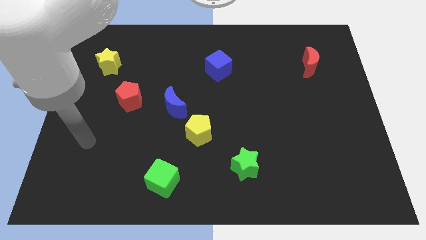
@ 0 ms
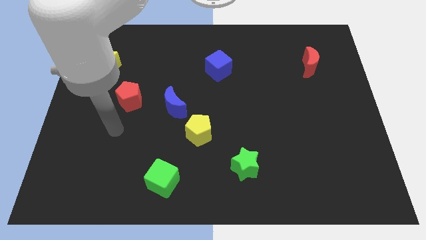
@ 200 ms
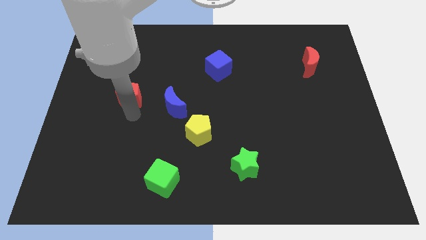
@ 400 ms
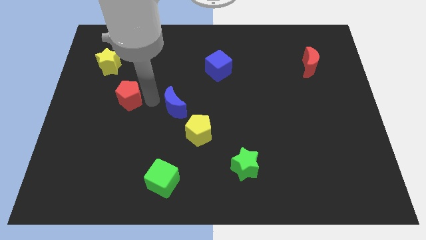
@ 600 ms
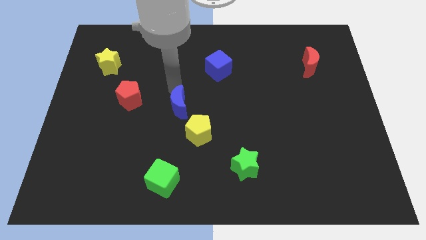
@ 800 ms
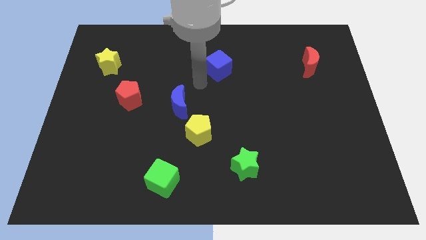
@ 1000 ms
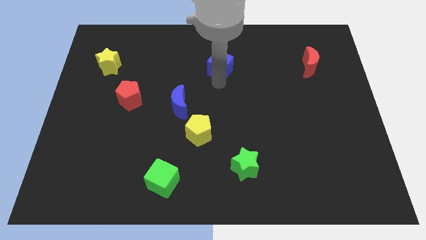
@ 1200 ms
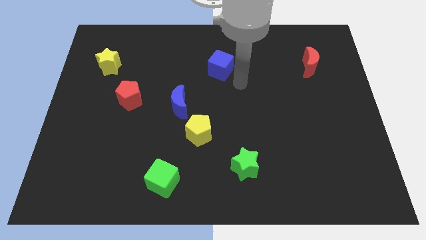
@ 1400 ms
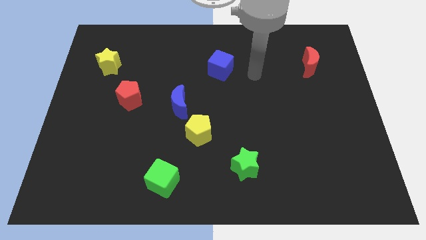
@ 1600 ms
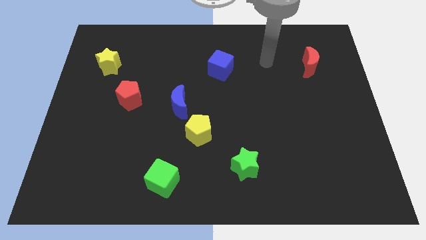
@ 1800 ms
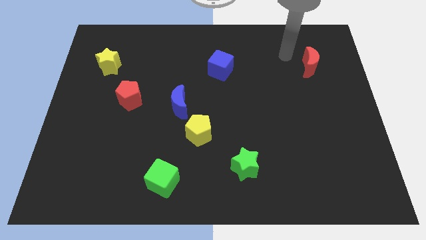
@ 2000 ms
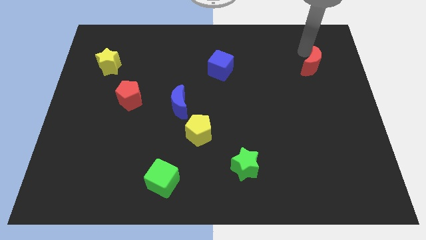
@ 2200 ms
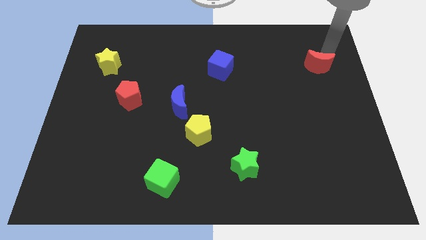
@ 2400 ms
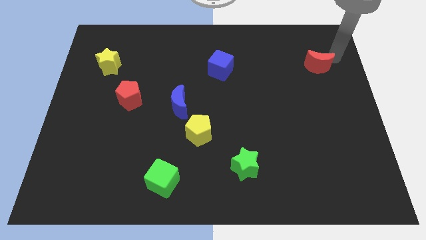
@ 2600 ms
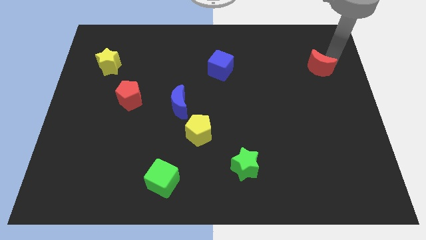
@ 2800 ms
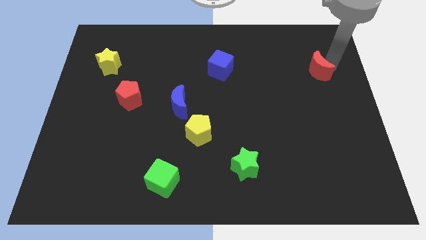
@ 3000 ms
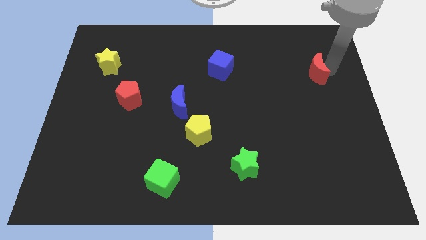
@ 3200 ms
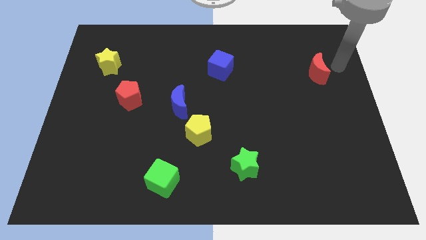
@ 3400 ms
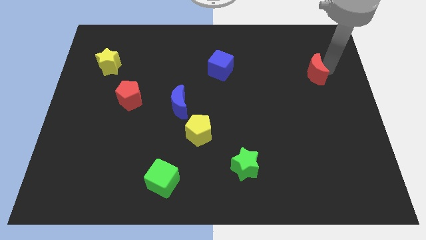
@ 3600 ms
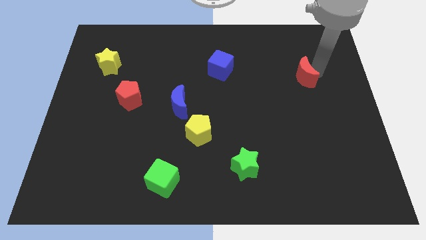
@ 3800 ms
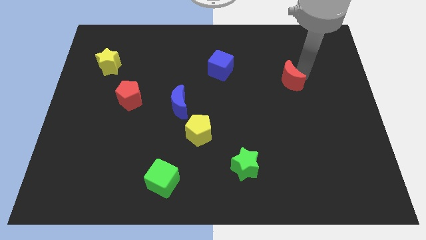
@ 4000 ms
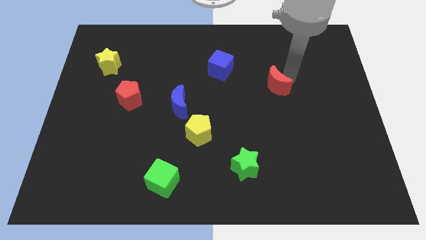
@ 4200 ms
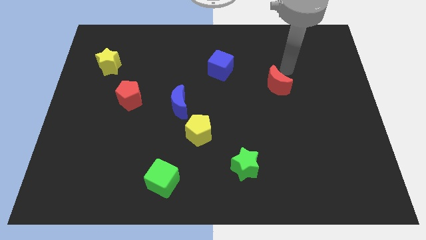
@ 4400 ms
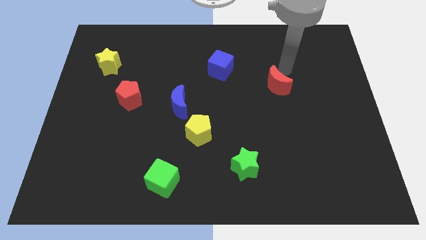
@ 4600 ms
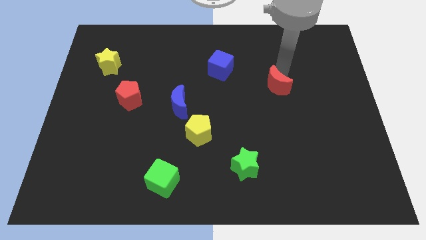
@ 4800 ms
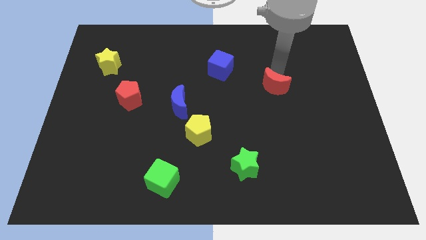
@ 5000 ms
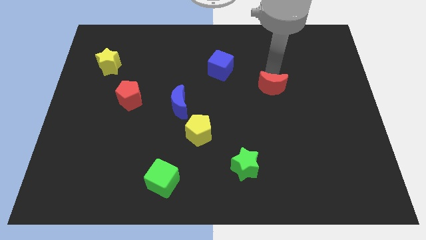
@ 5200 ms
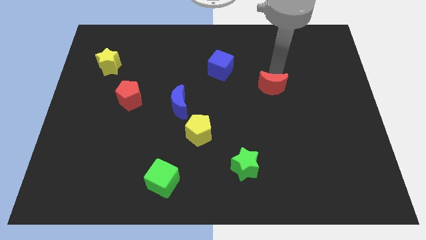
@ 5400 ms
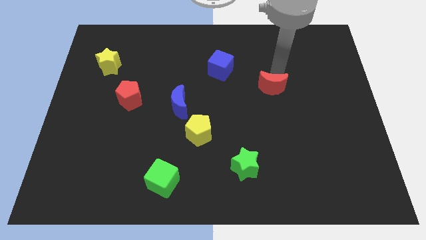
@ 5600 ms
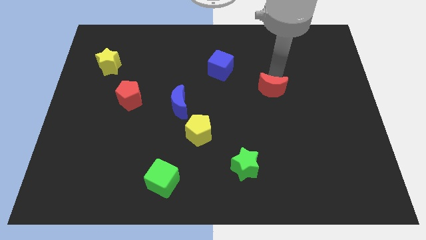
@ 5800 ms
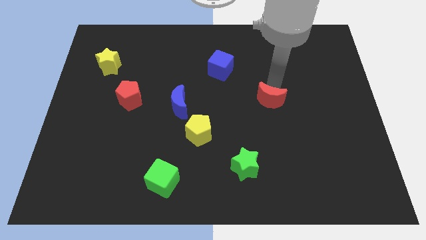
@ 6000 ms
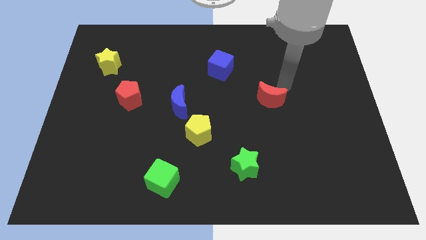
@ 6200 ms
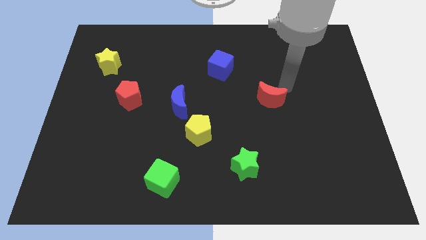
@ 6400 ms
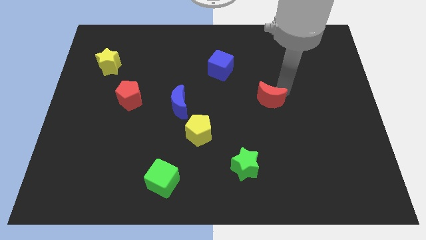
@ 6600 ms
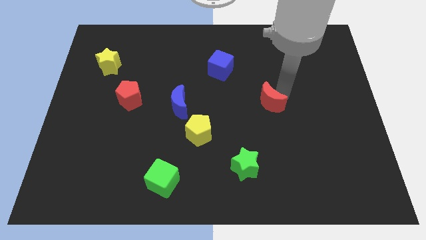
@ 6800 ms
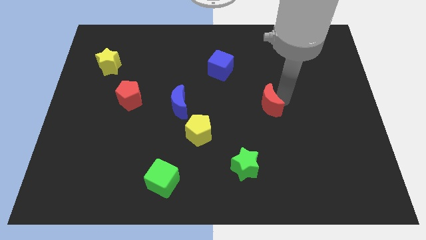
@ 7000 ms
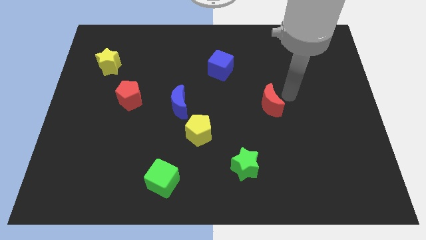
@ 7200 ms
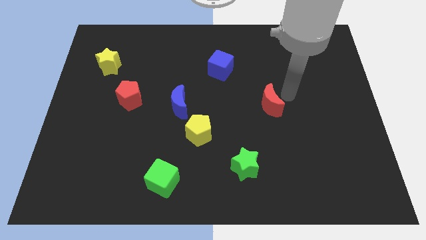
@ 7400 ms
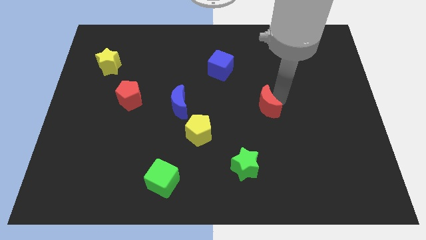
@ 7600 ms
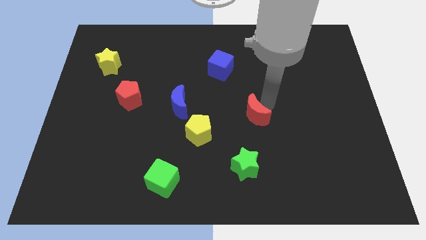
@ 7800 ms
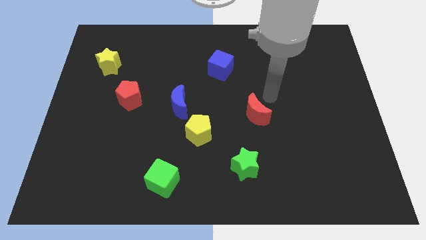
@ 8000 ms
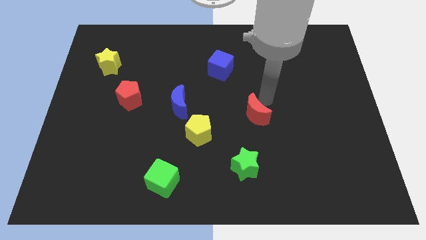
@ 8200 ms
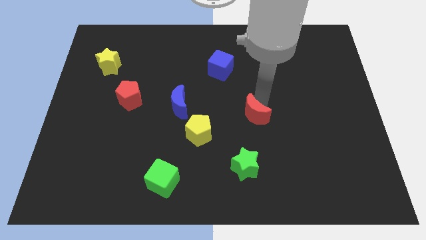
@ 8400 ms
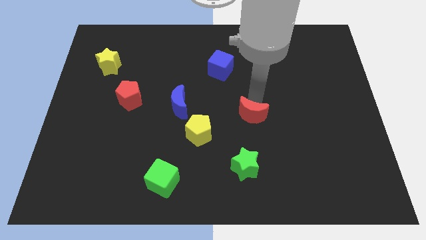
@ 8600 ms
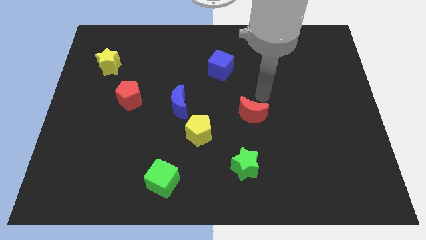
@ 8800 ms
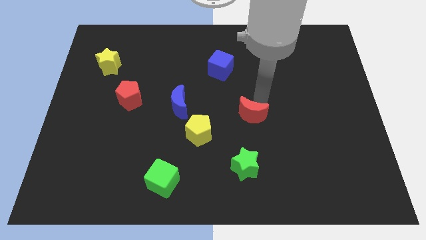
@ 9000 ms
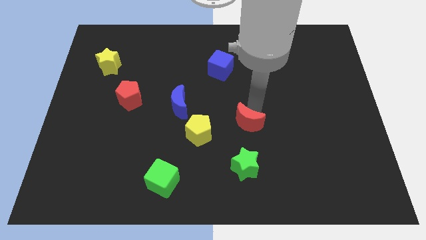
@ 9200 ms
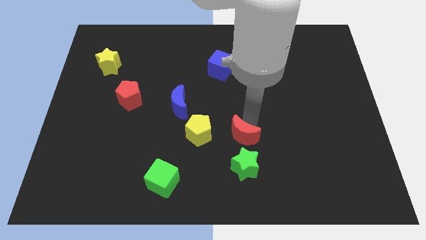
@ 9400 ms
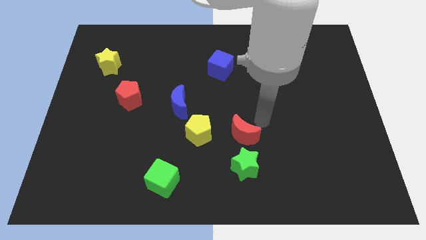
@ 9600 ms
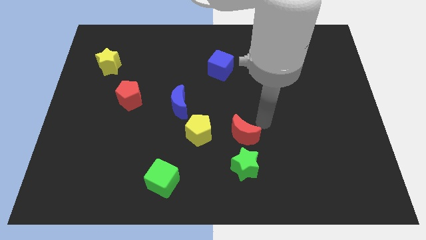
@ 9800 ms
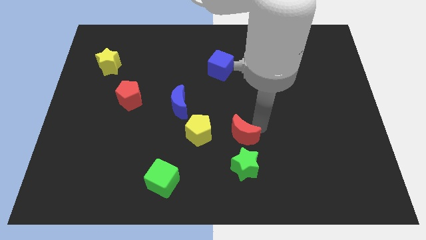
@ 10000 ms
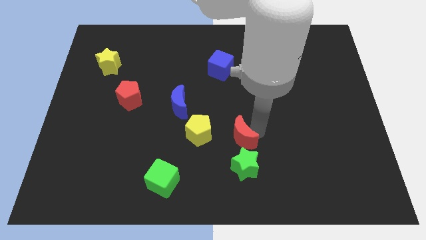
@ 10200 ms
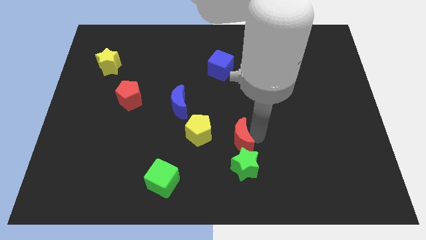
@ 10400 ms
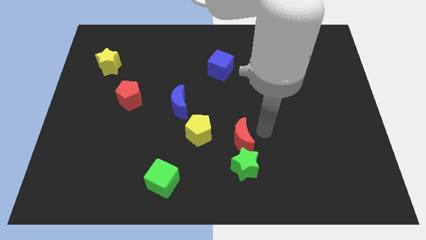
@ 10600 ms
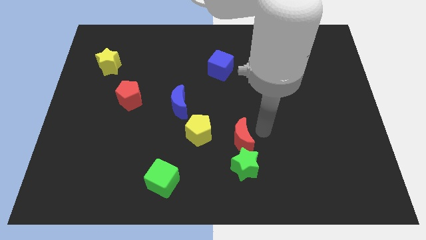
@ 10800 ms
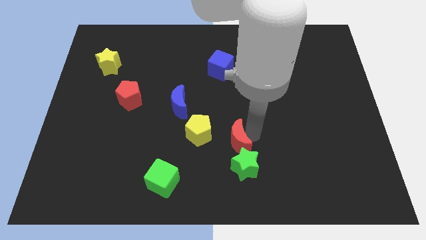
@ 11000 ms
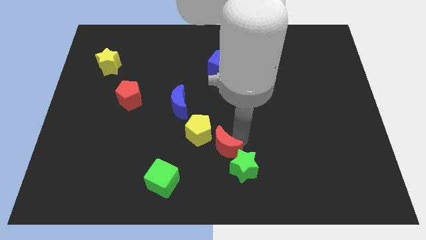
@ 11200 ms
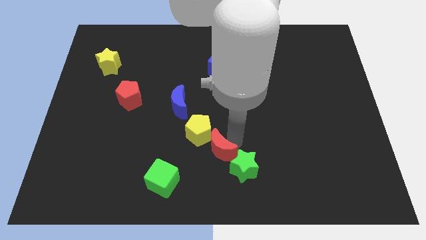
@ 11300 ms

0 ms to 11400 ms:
move the red moon below the yellow pentagon
